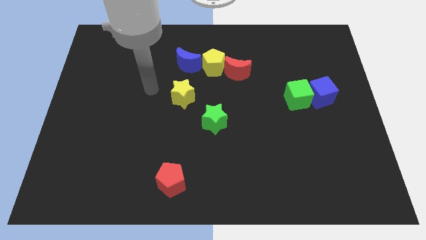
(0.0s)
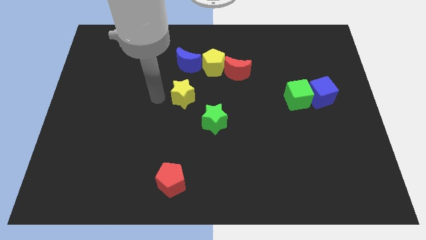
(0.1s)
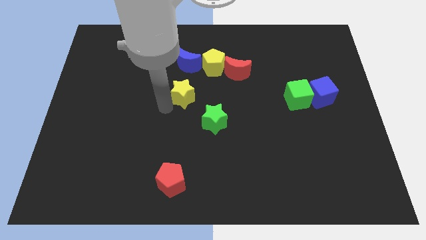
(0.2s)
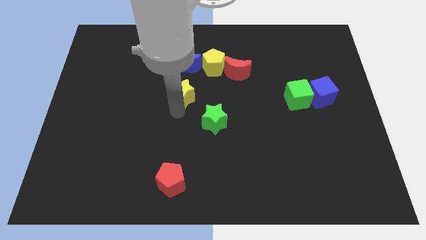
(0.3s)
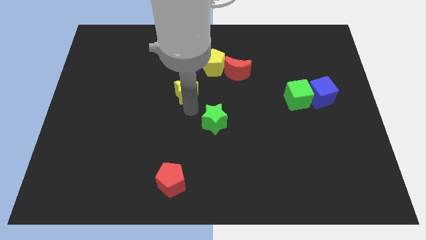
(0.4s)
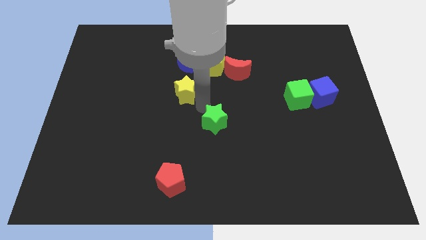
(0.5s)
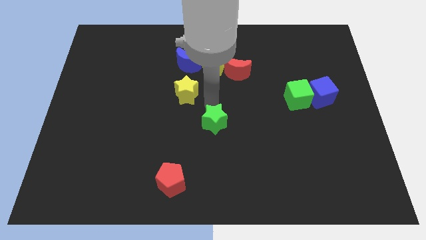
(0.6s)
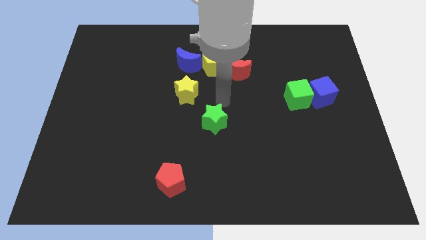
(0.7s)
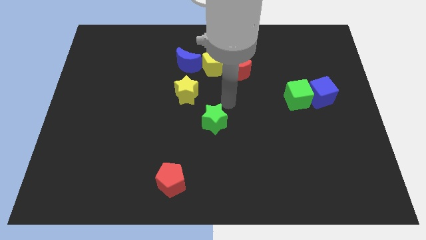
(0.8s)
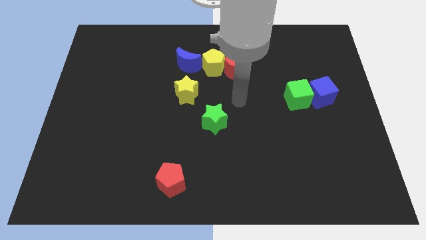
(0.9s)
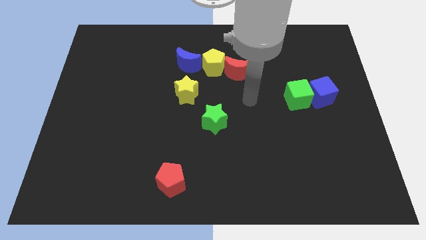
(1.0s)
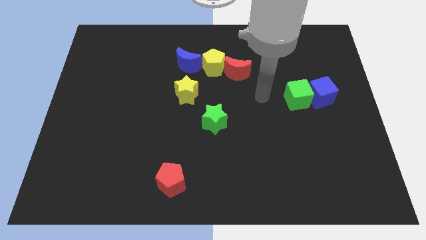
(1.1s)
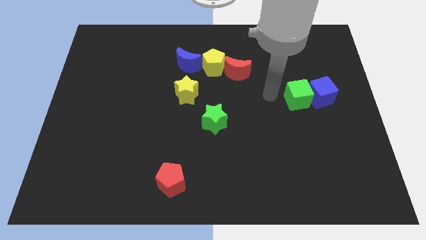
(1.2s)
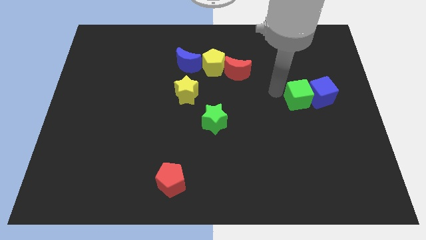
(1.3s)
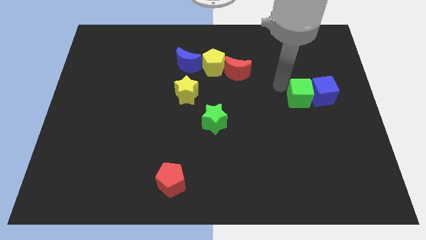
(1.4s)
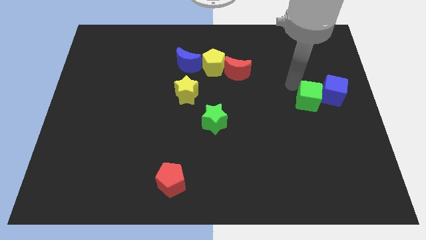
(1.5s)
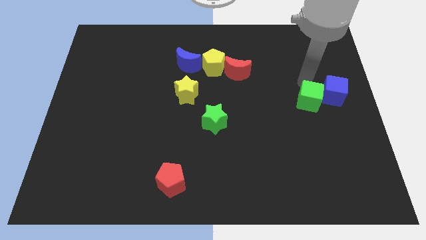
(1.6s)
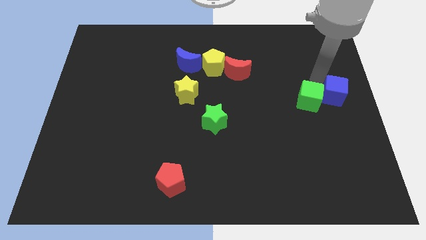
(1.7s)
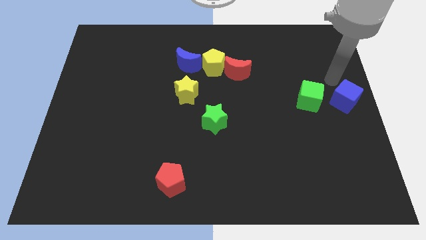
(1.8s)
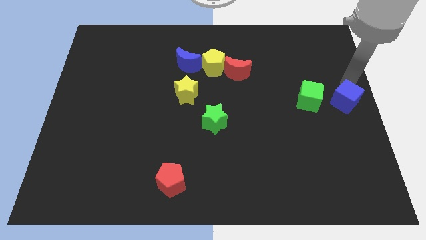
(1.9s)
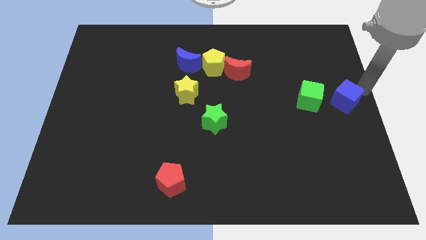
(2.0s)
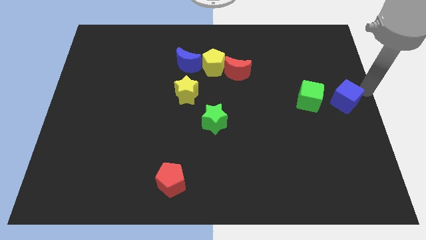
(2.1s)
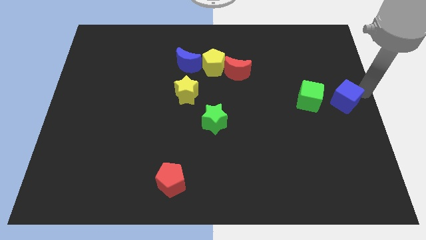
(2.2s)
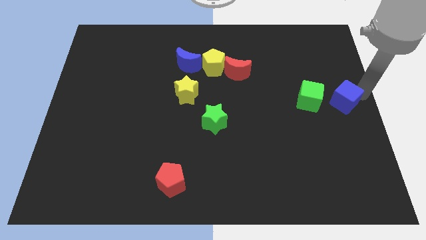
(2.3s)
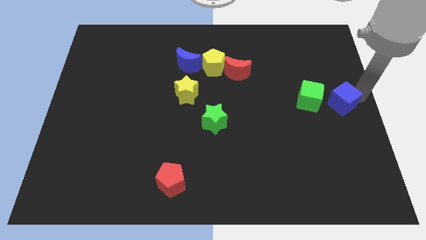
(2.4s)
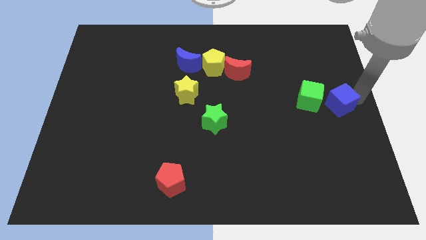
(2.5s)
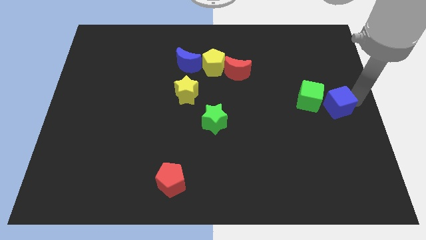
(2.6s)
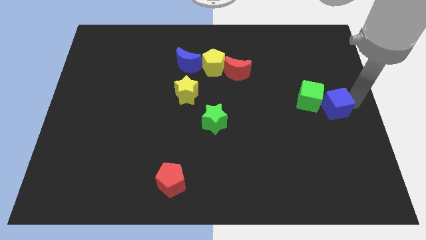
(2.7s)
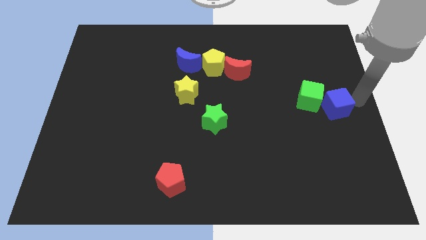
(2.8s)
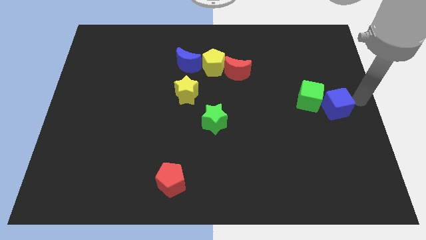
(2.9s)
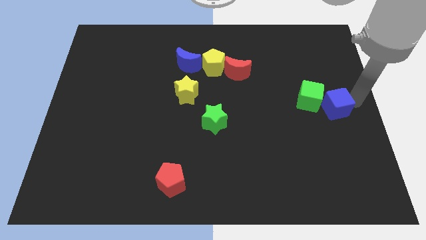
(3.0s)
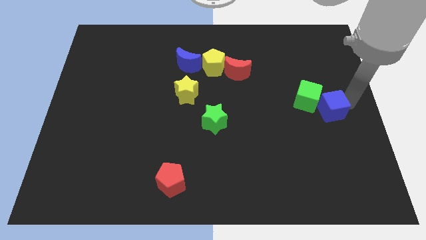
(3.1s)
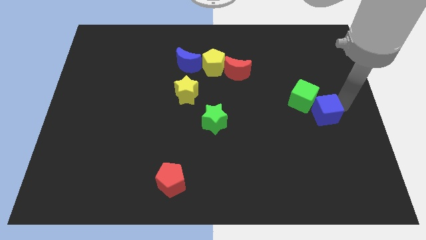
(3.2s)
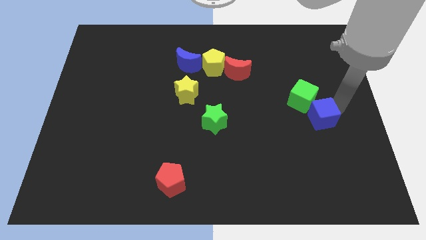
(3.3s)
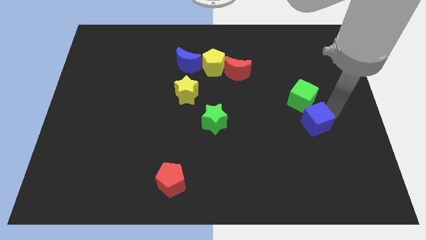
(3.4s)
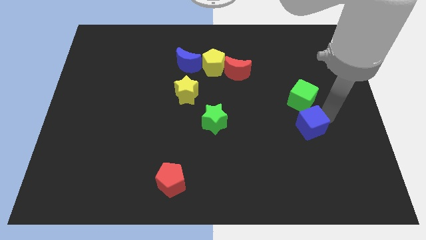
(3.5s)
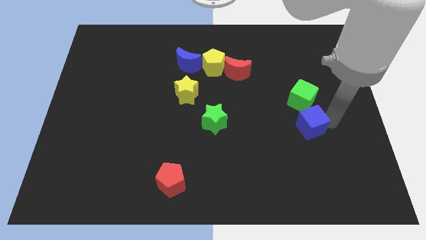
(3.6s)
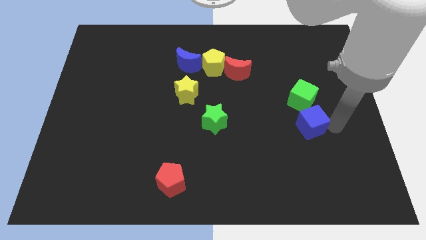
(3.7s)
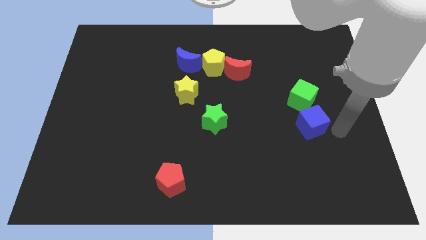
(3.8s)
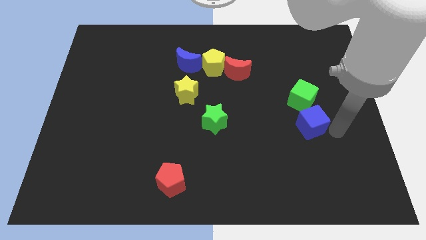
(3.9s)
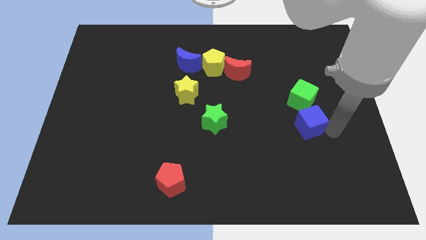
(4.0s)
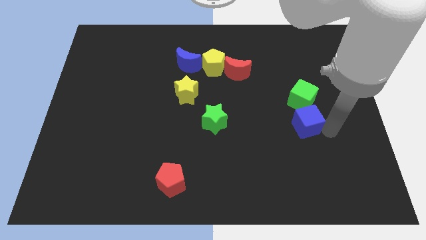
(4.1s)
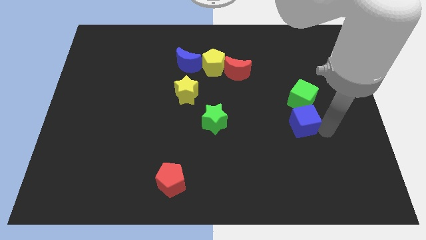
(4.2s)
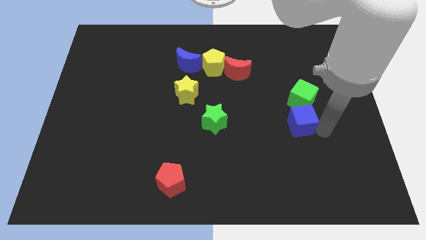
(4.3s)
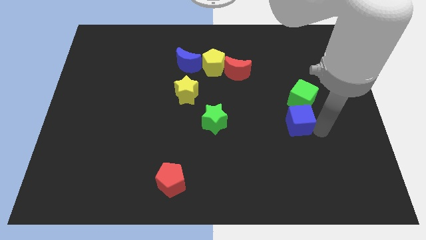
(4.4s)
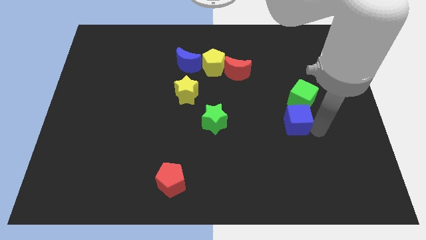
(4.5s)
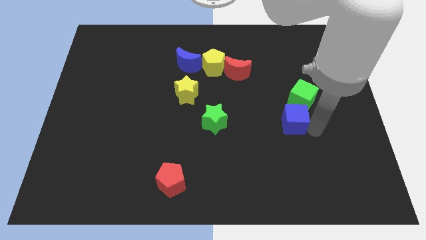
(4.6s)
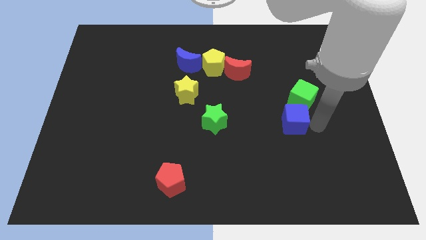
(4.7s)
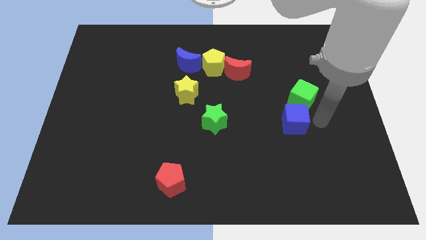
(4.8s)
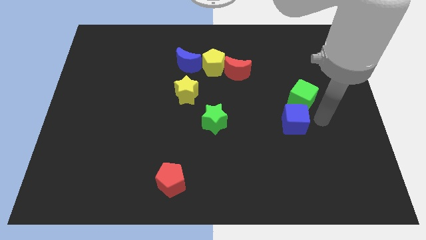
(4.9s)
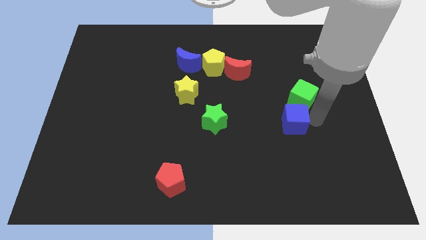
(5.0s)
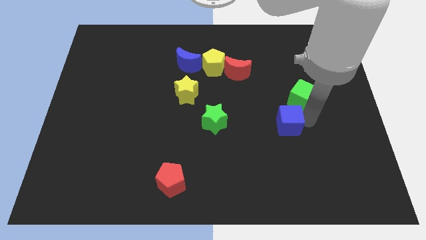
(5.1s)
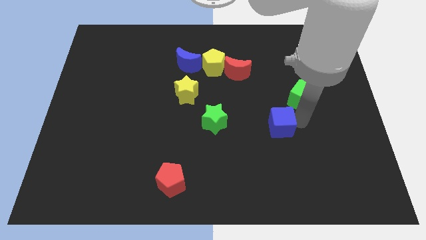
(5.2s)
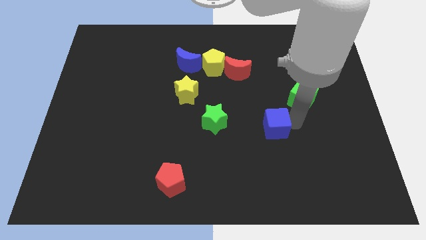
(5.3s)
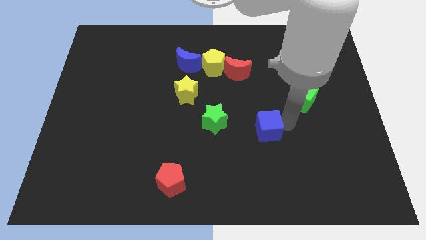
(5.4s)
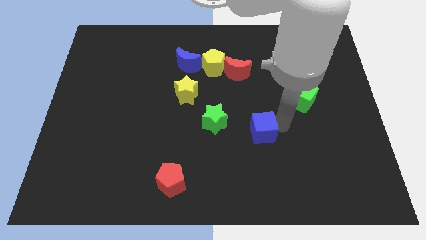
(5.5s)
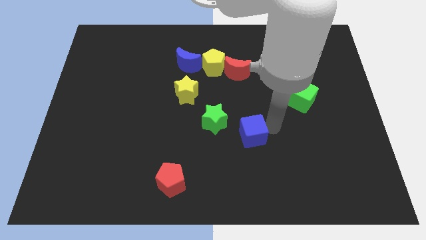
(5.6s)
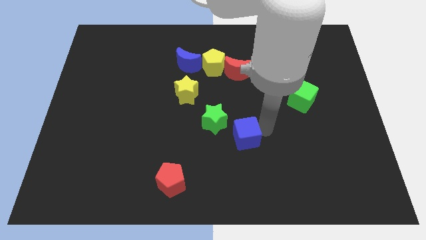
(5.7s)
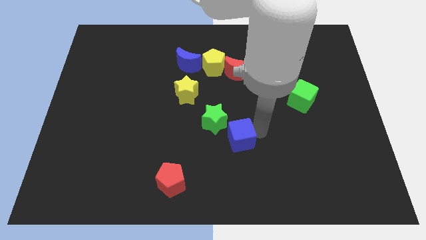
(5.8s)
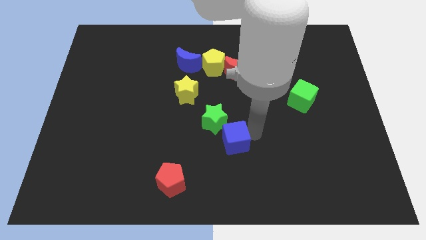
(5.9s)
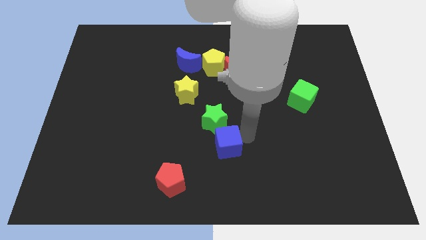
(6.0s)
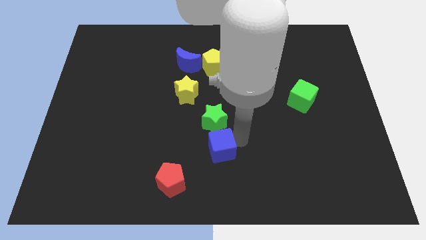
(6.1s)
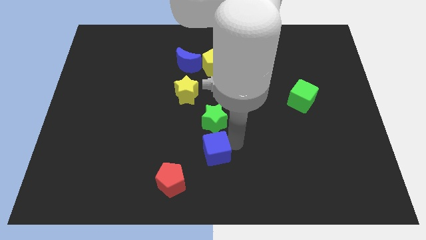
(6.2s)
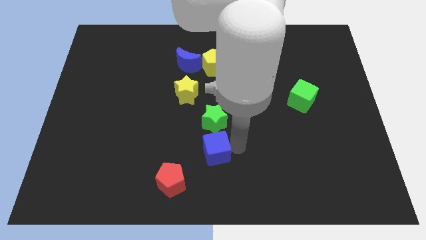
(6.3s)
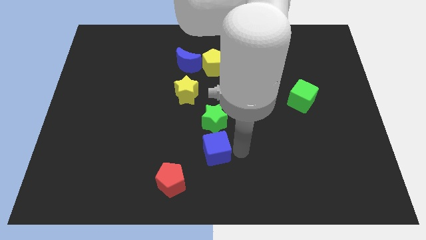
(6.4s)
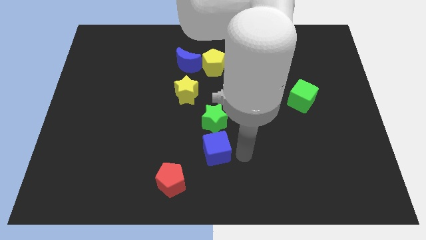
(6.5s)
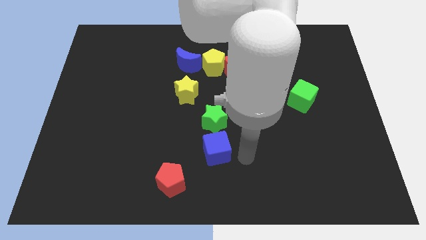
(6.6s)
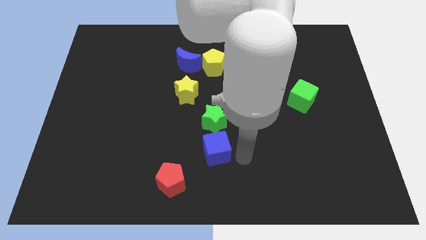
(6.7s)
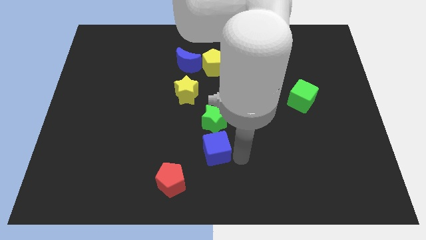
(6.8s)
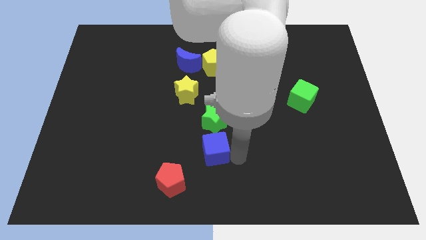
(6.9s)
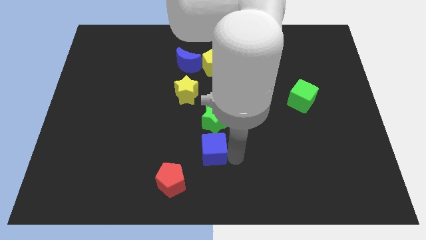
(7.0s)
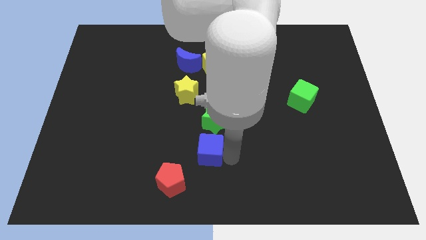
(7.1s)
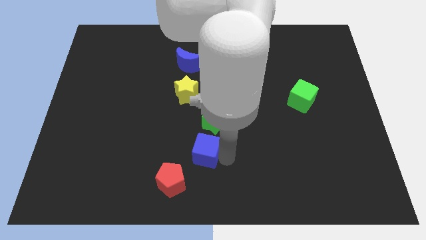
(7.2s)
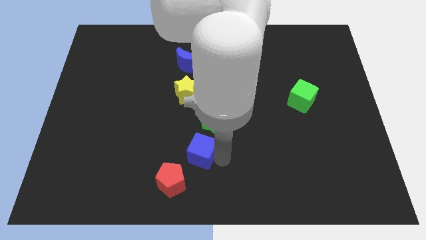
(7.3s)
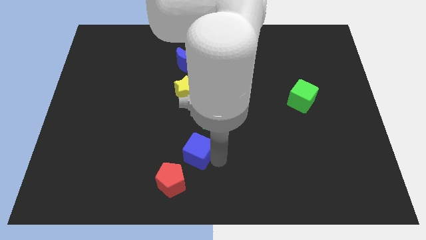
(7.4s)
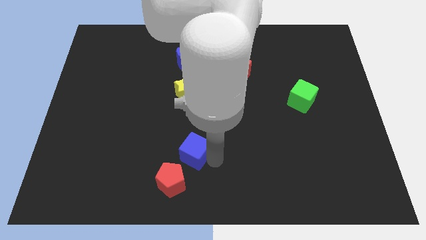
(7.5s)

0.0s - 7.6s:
move the blue cube to the top of the red pentagon
